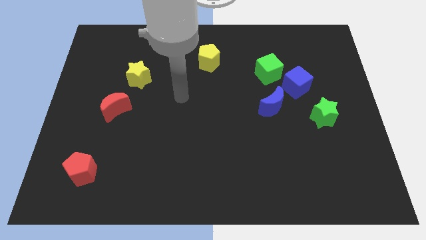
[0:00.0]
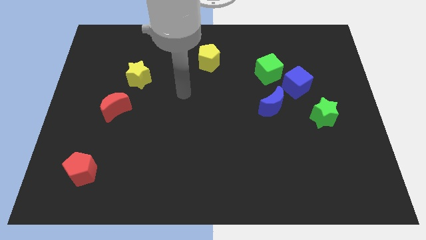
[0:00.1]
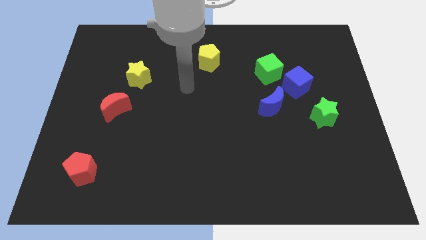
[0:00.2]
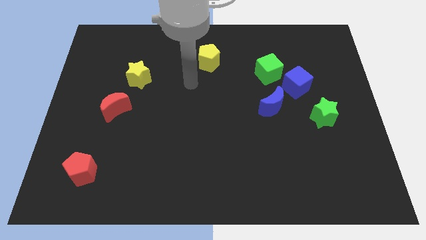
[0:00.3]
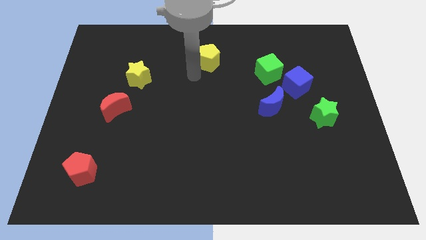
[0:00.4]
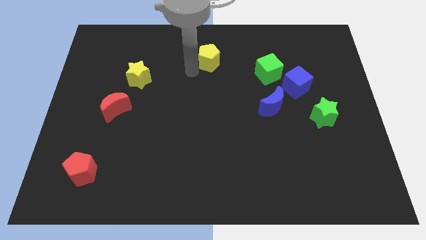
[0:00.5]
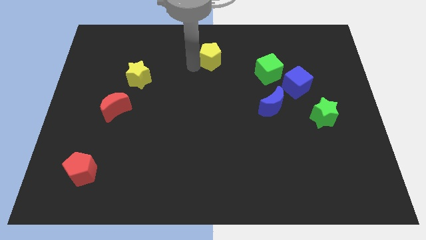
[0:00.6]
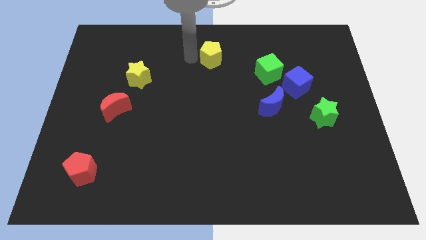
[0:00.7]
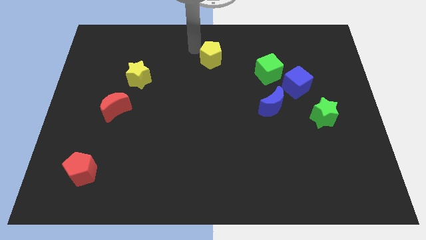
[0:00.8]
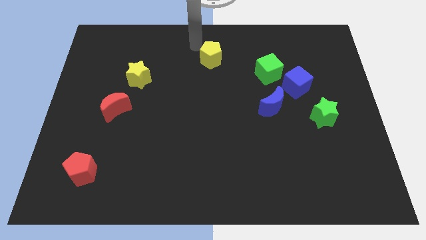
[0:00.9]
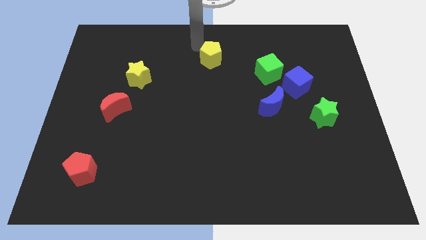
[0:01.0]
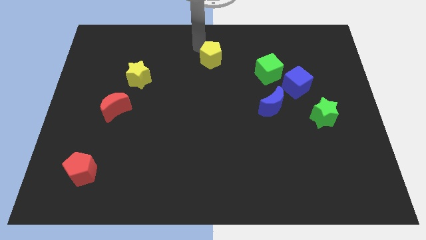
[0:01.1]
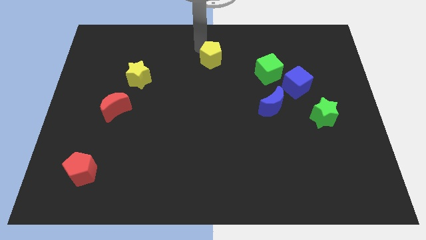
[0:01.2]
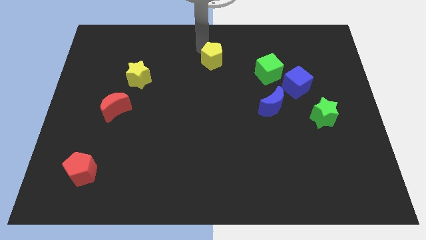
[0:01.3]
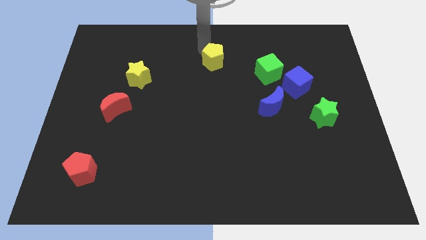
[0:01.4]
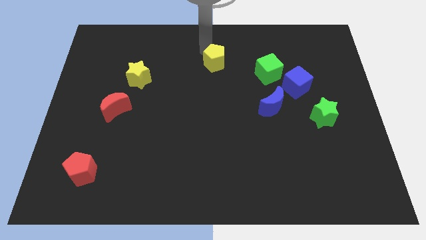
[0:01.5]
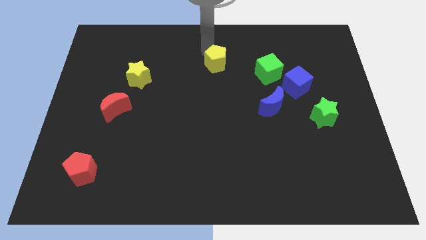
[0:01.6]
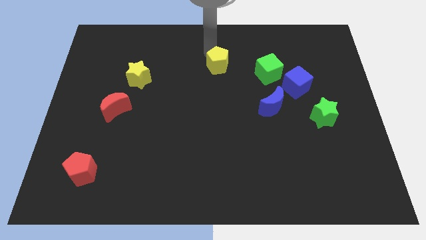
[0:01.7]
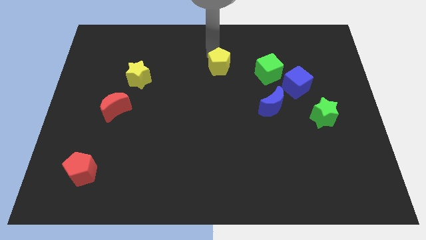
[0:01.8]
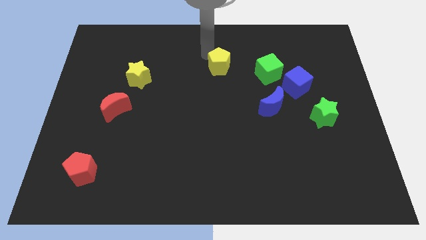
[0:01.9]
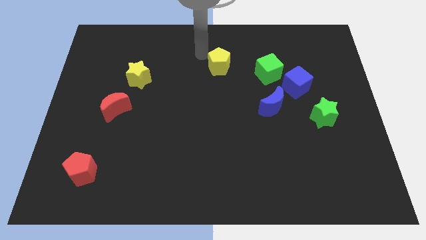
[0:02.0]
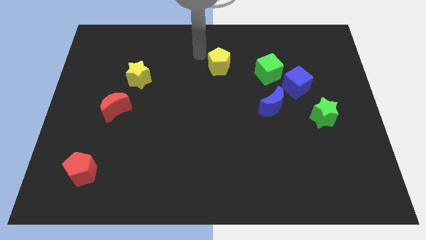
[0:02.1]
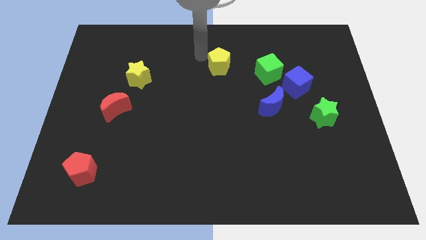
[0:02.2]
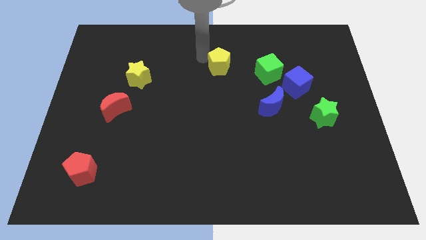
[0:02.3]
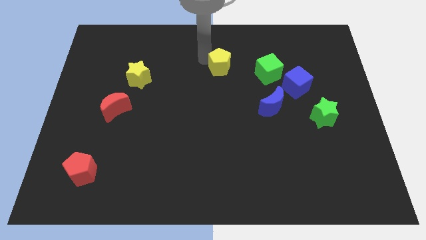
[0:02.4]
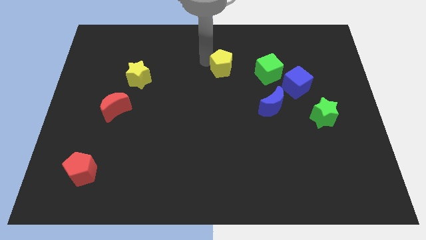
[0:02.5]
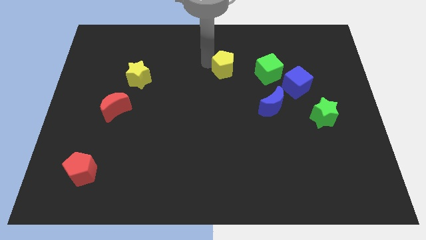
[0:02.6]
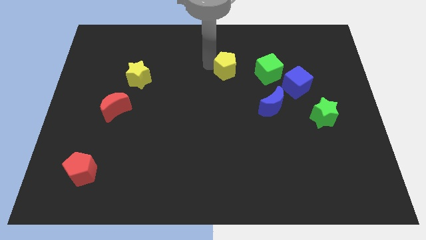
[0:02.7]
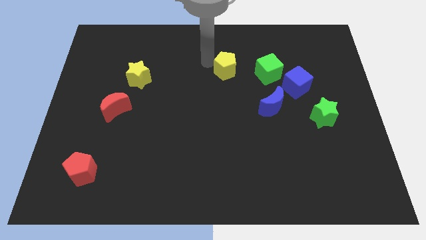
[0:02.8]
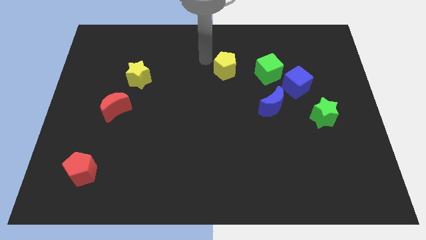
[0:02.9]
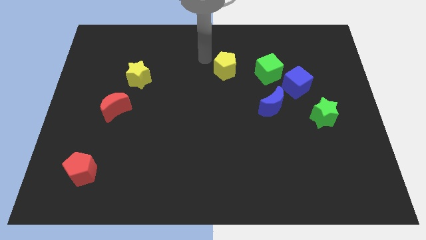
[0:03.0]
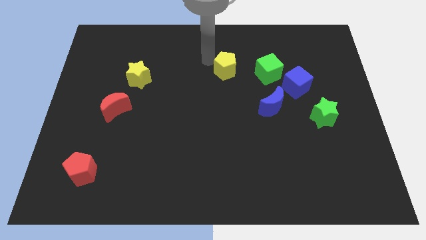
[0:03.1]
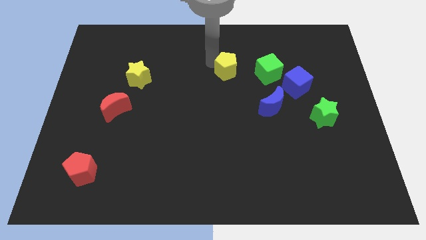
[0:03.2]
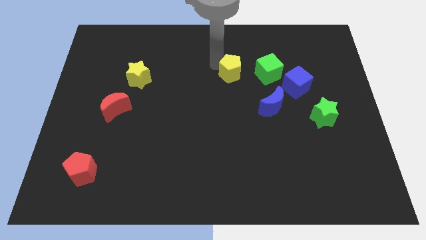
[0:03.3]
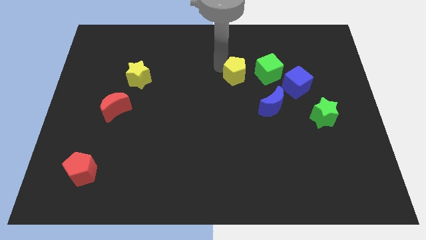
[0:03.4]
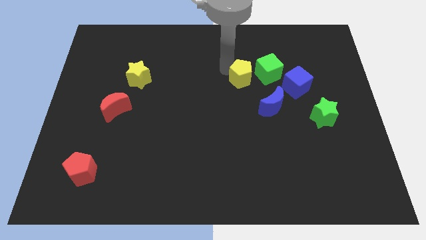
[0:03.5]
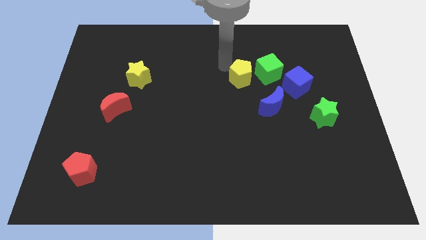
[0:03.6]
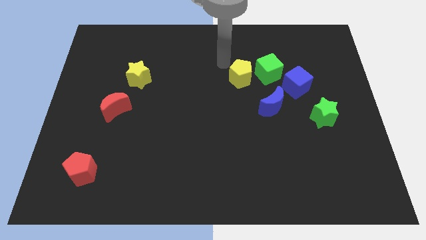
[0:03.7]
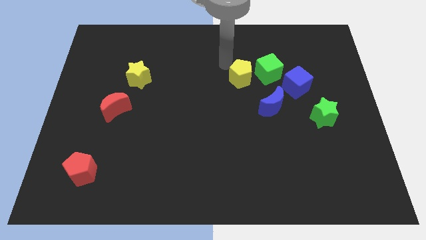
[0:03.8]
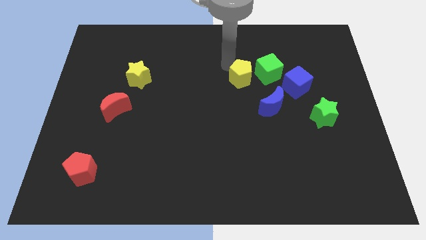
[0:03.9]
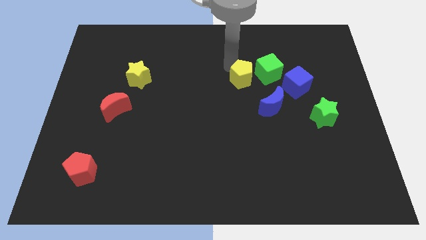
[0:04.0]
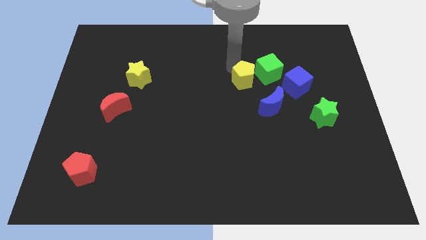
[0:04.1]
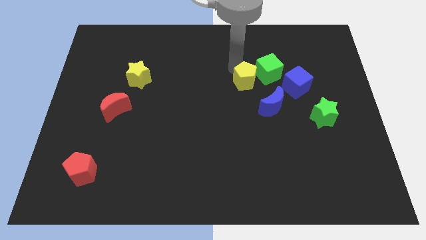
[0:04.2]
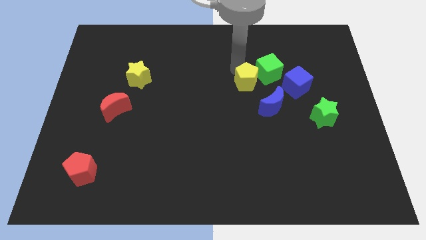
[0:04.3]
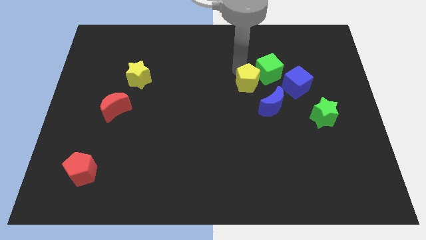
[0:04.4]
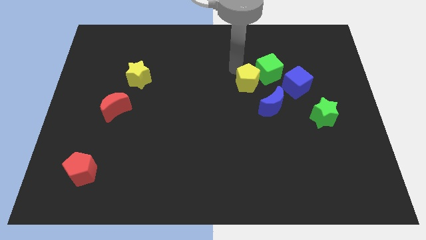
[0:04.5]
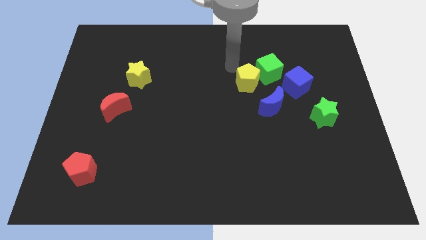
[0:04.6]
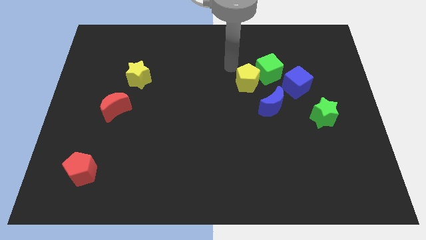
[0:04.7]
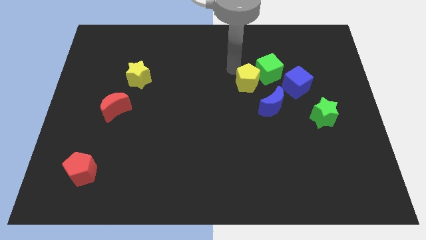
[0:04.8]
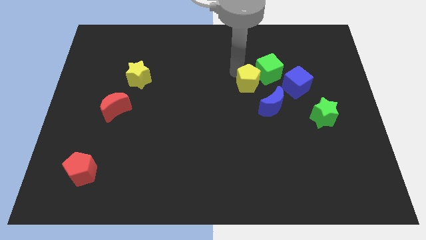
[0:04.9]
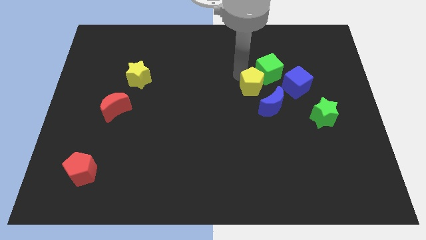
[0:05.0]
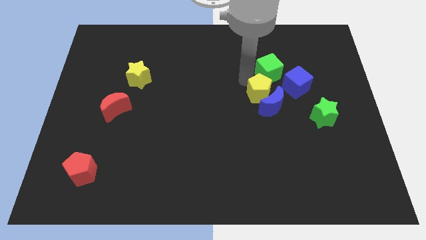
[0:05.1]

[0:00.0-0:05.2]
slide the yellow pentagon towards the blue moon

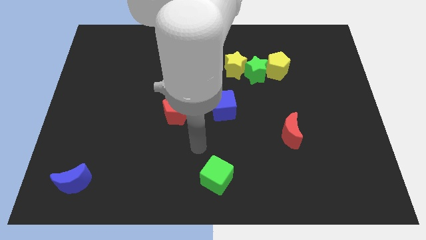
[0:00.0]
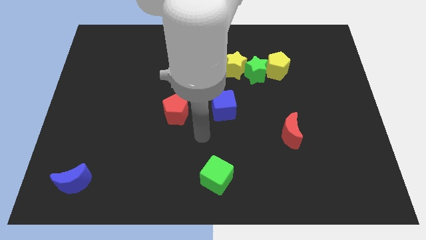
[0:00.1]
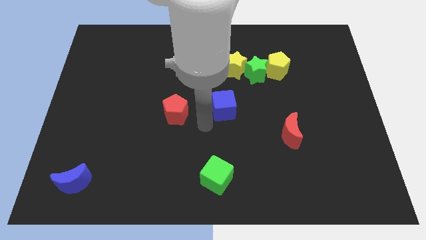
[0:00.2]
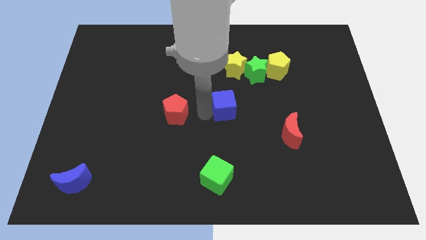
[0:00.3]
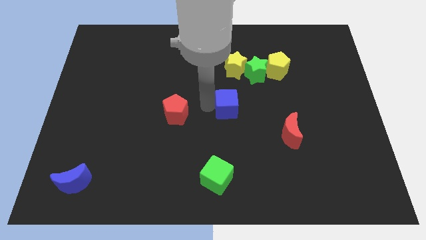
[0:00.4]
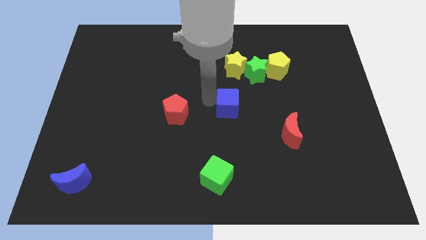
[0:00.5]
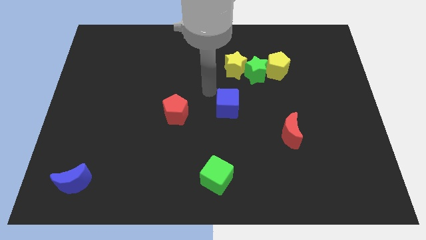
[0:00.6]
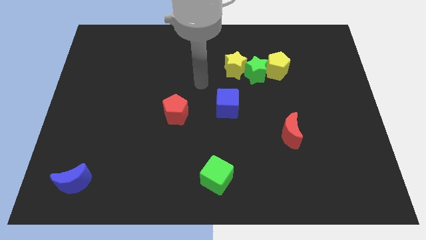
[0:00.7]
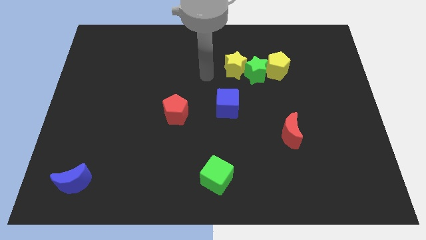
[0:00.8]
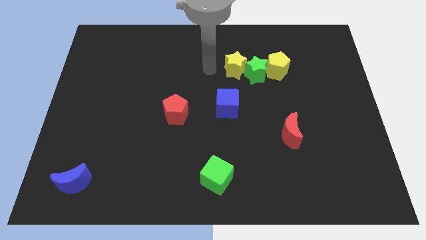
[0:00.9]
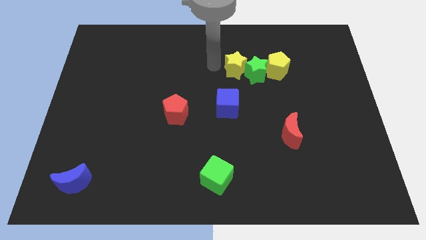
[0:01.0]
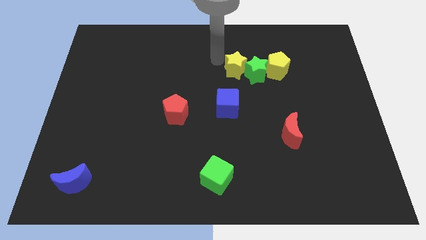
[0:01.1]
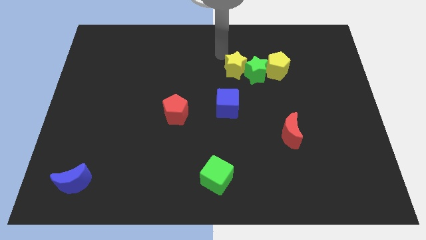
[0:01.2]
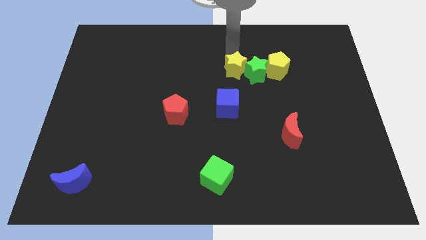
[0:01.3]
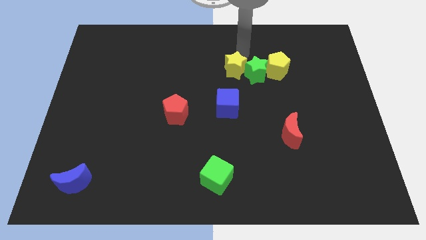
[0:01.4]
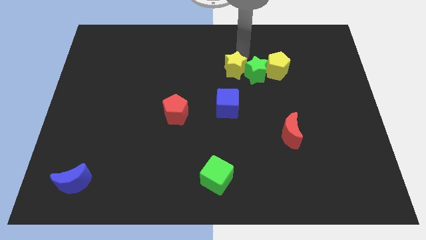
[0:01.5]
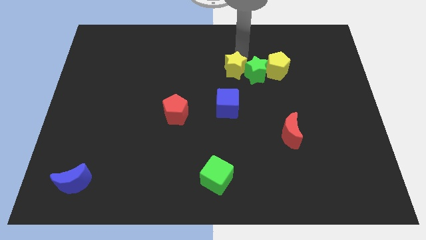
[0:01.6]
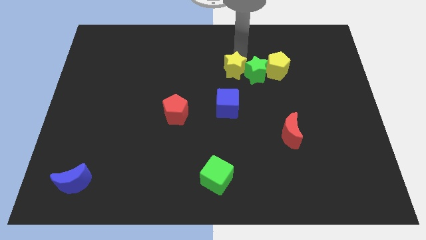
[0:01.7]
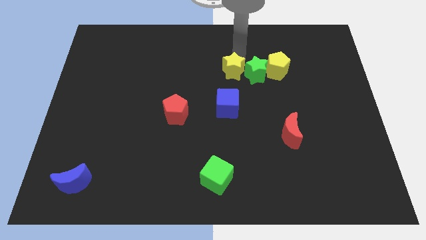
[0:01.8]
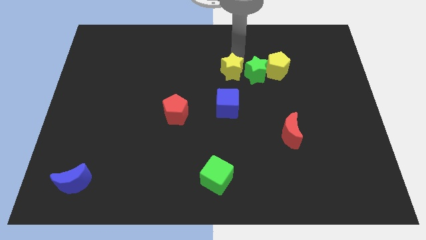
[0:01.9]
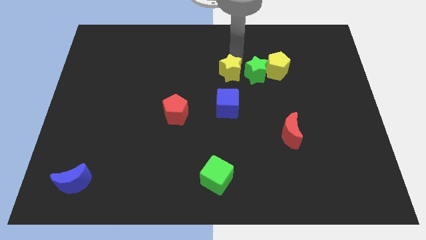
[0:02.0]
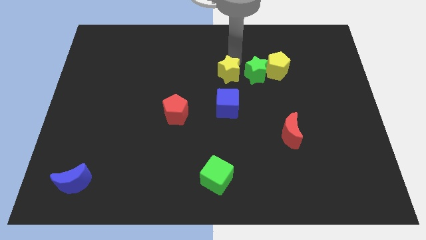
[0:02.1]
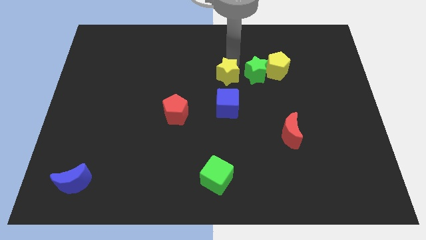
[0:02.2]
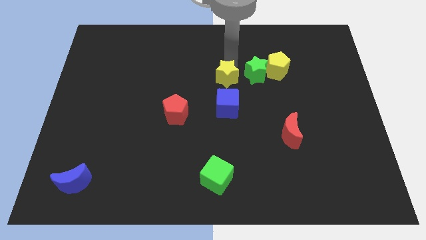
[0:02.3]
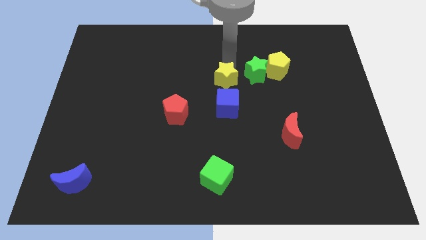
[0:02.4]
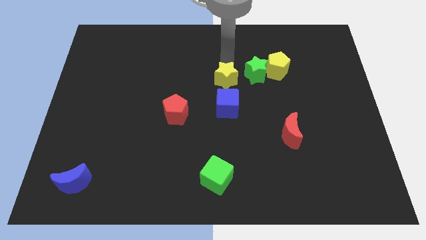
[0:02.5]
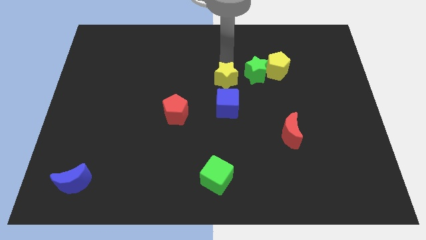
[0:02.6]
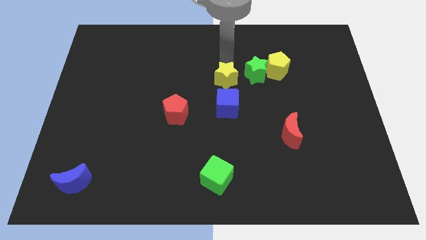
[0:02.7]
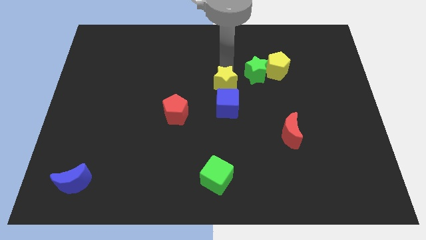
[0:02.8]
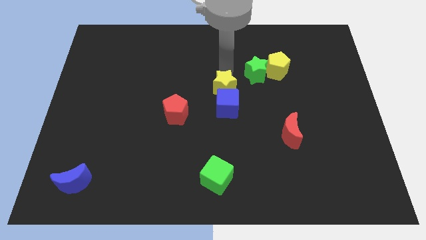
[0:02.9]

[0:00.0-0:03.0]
put the yellow star to the blue cube

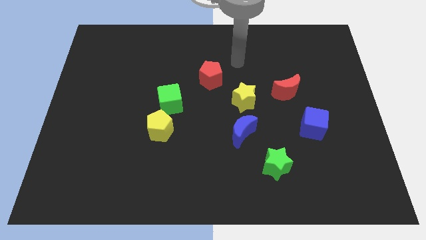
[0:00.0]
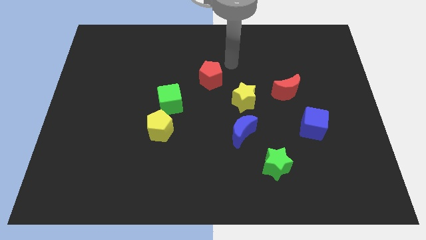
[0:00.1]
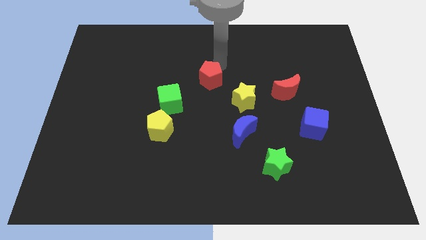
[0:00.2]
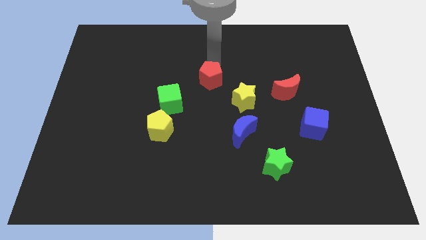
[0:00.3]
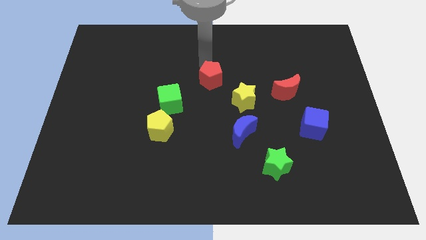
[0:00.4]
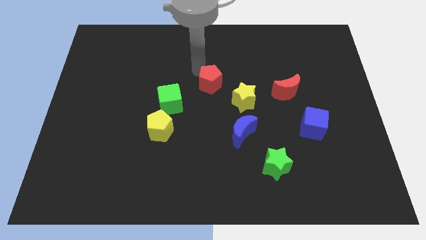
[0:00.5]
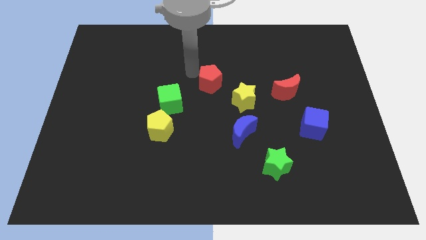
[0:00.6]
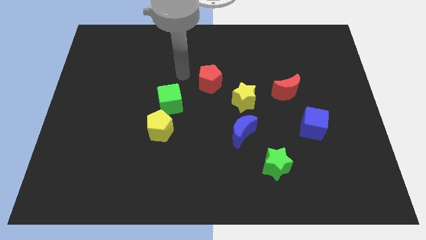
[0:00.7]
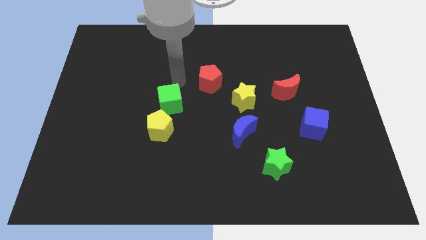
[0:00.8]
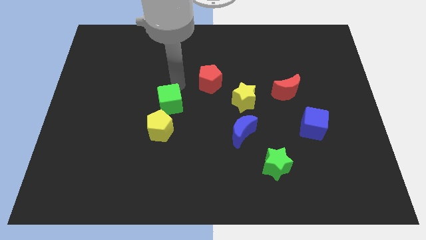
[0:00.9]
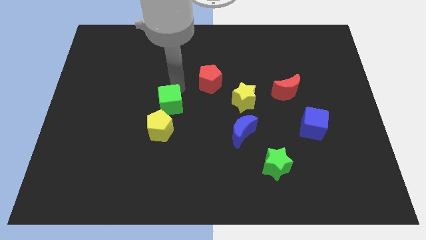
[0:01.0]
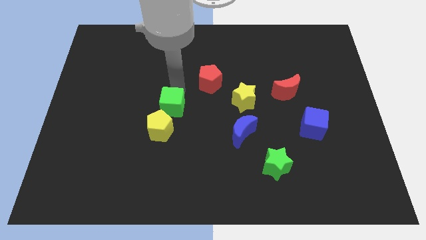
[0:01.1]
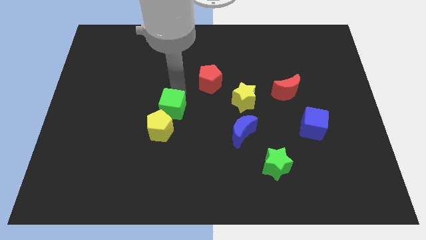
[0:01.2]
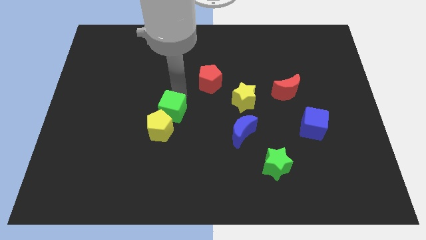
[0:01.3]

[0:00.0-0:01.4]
slide the green cube next to the yellow pentagon
